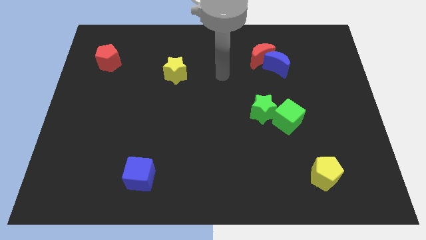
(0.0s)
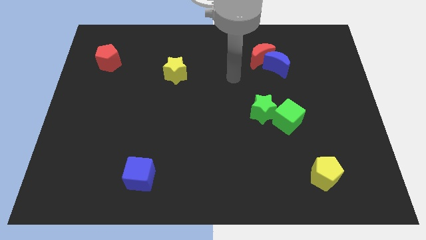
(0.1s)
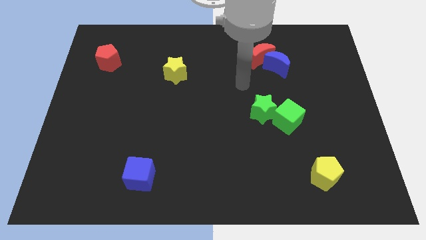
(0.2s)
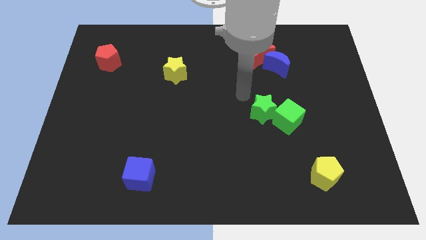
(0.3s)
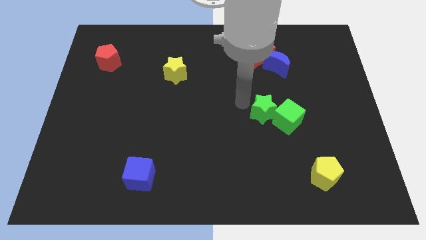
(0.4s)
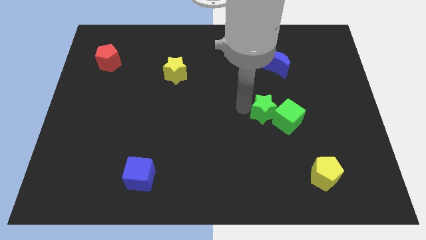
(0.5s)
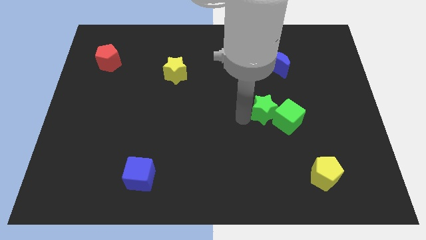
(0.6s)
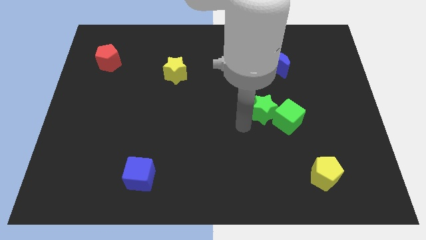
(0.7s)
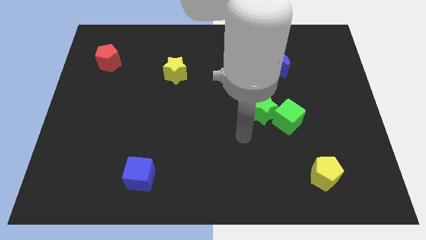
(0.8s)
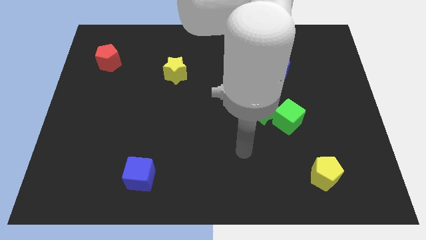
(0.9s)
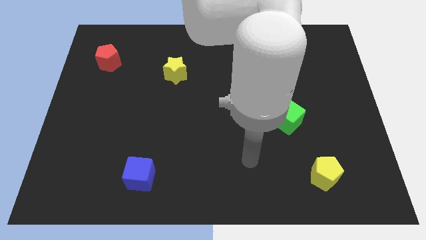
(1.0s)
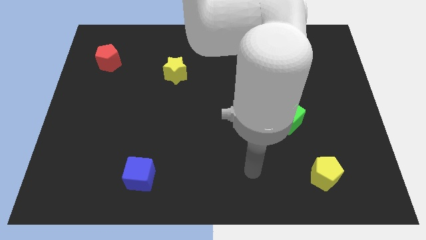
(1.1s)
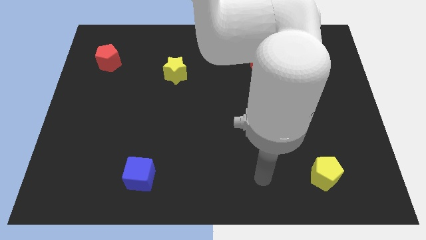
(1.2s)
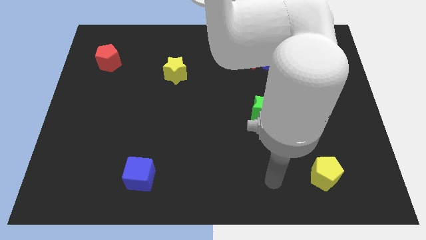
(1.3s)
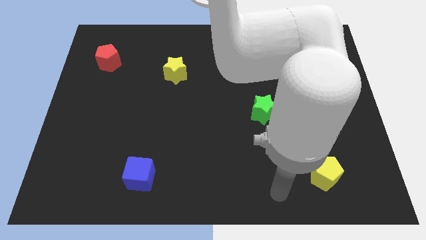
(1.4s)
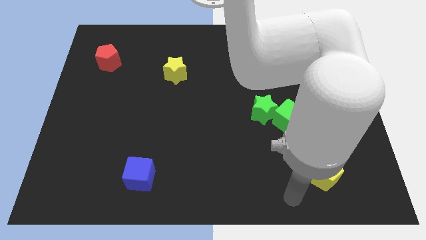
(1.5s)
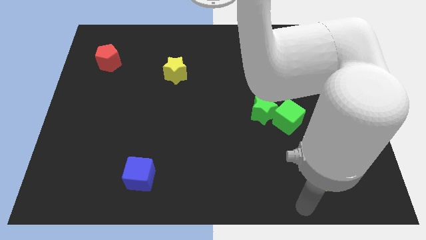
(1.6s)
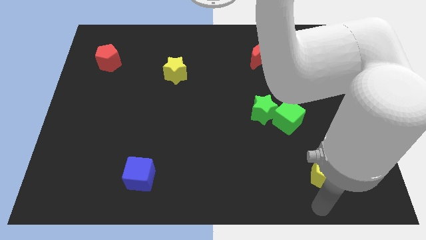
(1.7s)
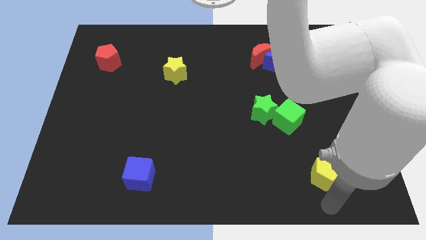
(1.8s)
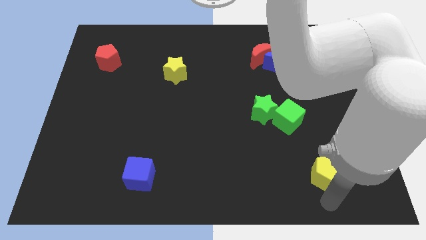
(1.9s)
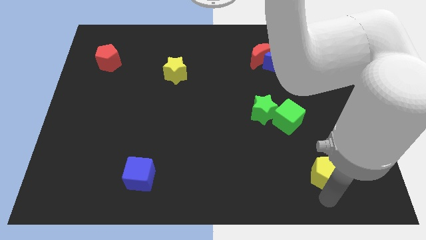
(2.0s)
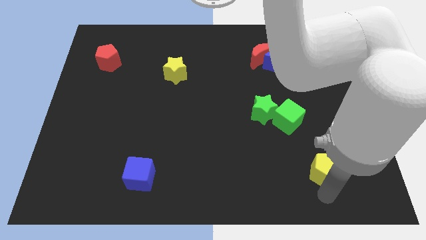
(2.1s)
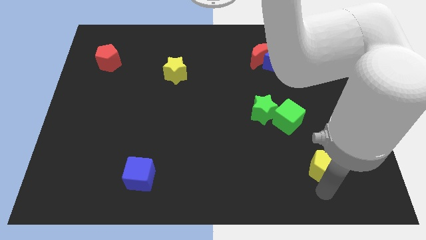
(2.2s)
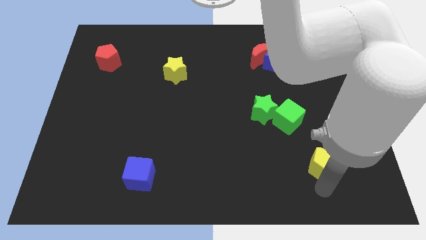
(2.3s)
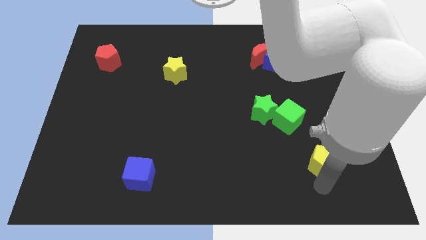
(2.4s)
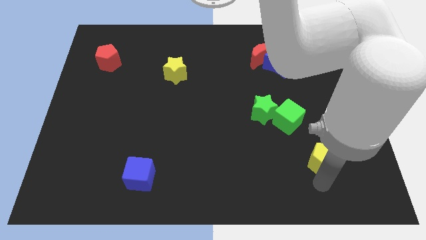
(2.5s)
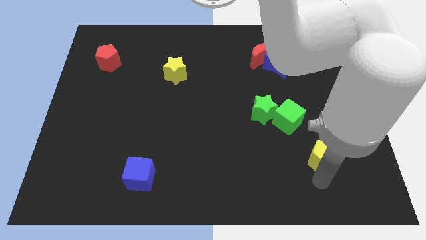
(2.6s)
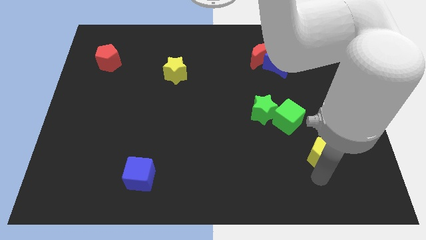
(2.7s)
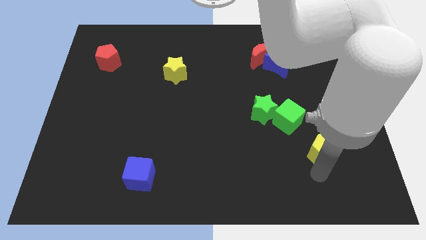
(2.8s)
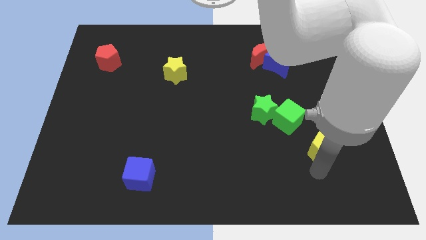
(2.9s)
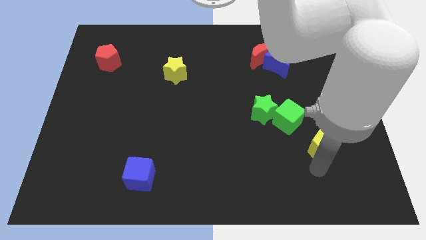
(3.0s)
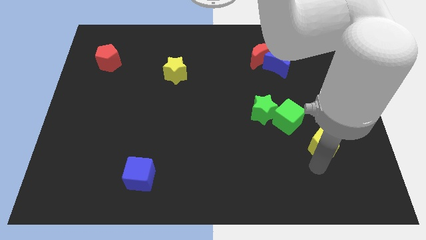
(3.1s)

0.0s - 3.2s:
slide the yellow pentagon up a little

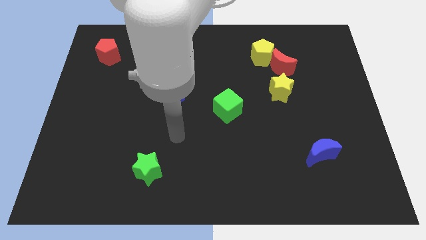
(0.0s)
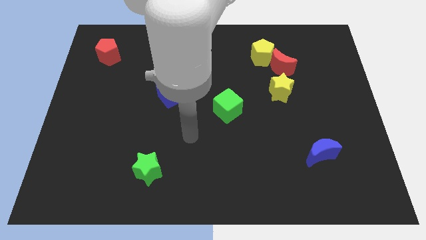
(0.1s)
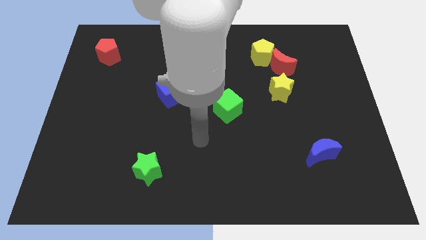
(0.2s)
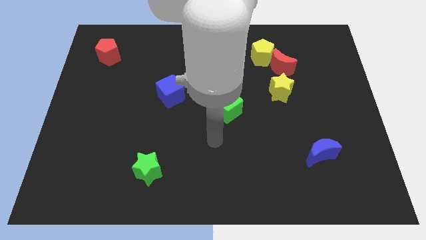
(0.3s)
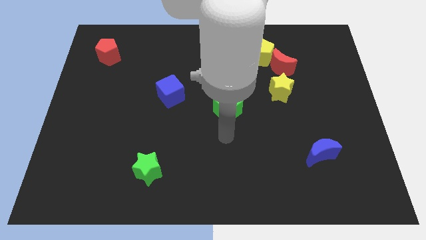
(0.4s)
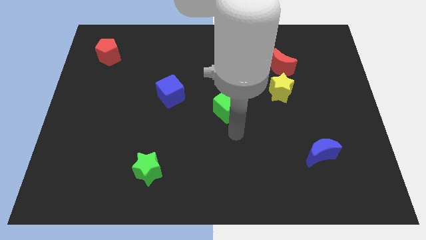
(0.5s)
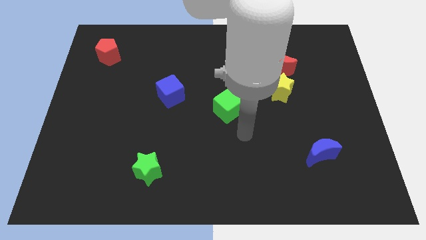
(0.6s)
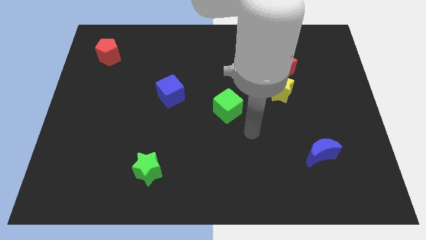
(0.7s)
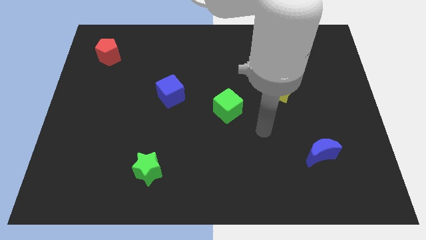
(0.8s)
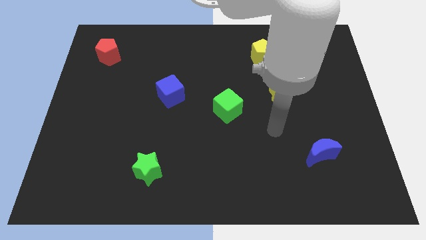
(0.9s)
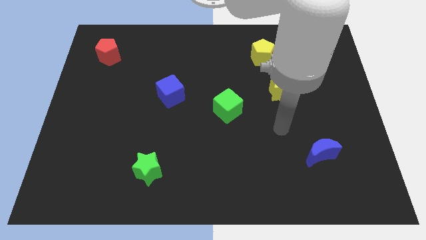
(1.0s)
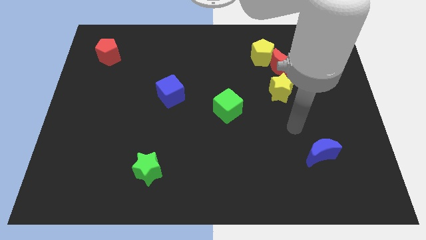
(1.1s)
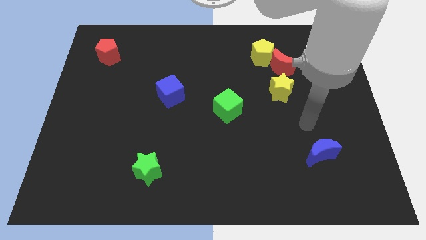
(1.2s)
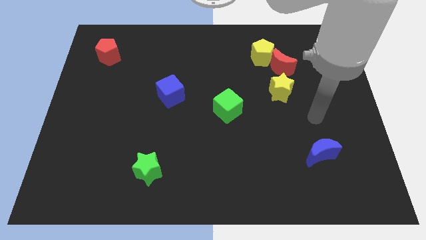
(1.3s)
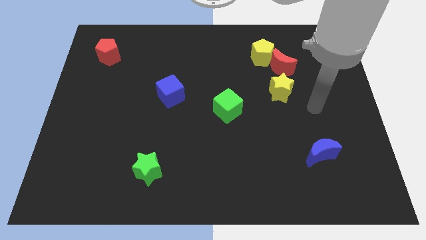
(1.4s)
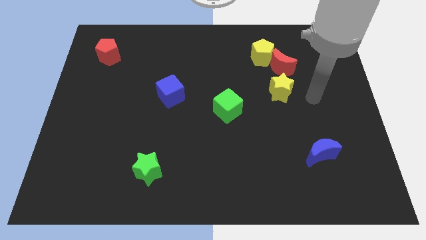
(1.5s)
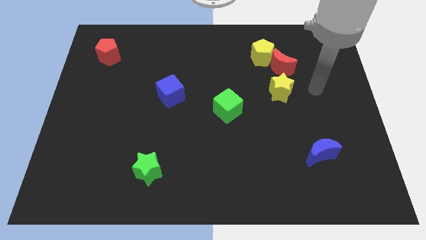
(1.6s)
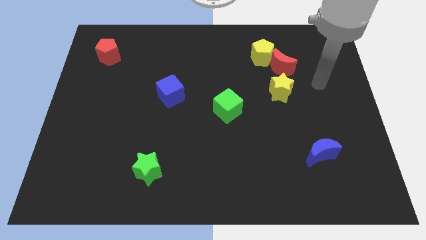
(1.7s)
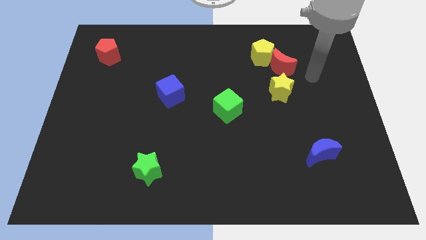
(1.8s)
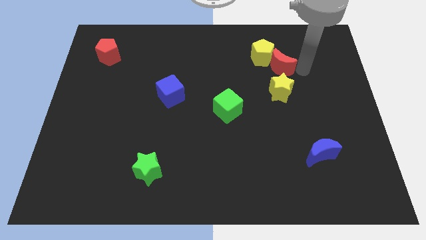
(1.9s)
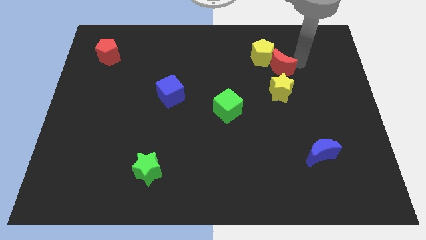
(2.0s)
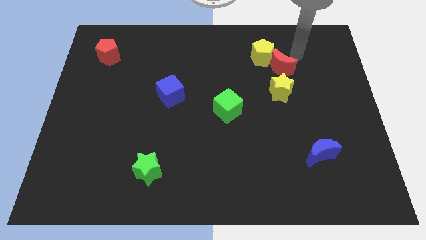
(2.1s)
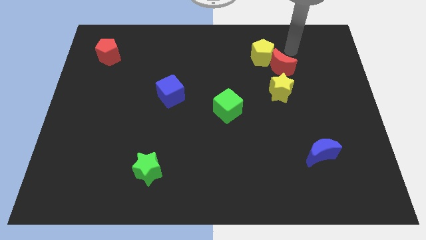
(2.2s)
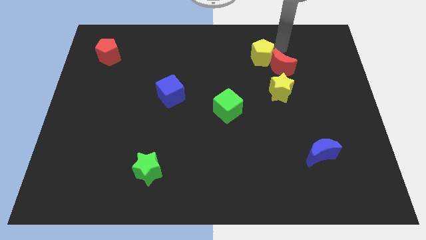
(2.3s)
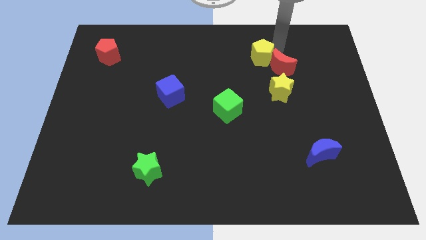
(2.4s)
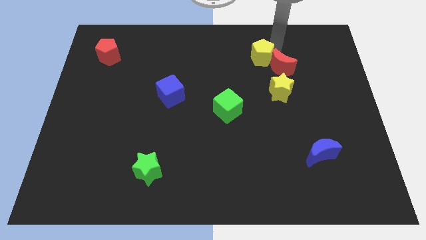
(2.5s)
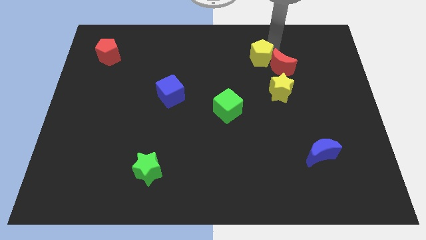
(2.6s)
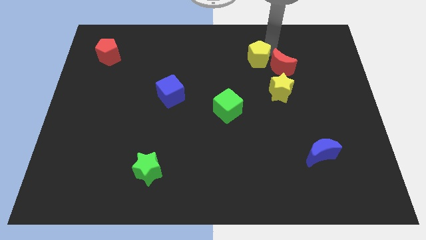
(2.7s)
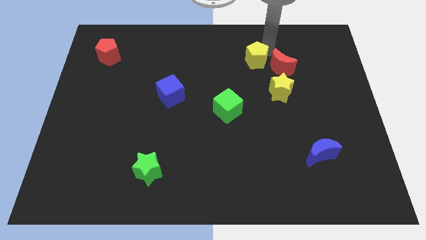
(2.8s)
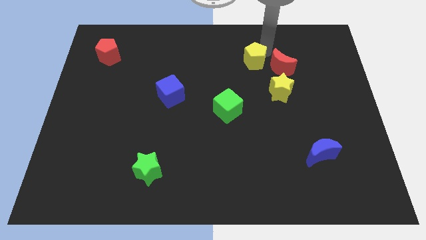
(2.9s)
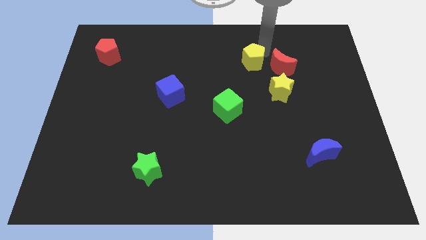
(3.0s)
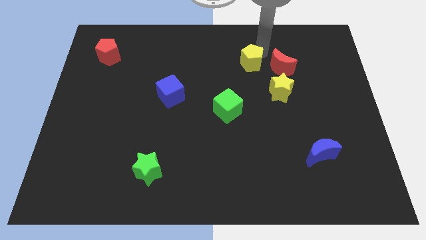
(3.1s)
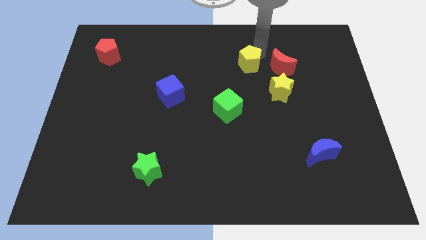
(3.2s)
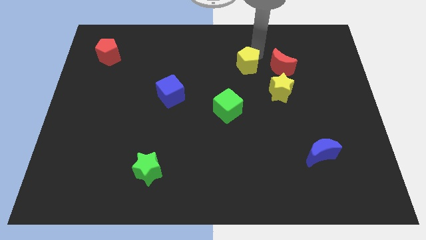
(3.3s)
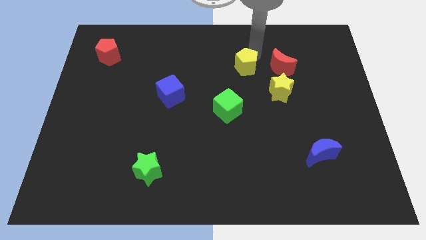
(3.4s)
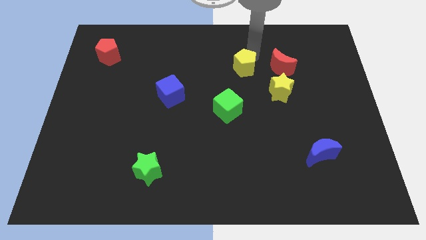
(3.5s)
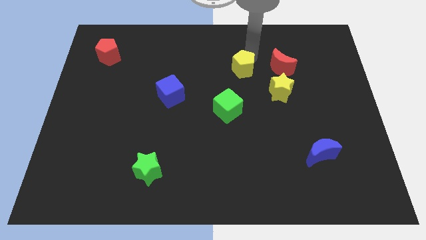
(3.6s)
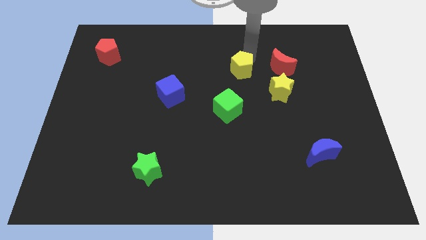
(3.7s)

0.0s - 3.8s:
slide the yellow pentagon somewhat downwards and to the left diagonally

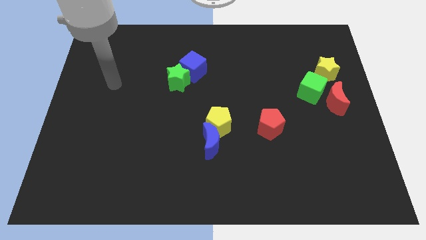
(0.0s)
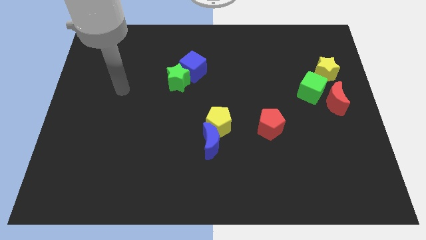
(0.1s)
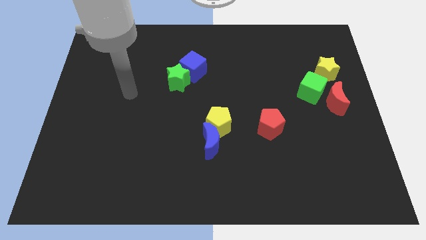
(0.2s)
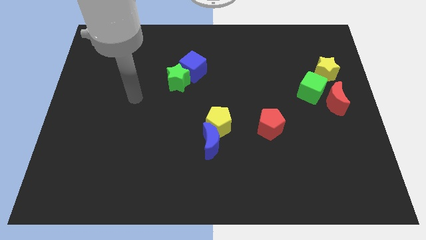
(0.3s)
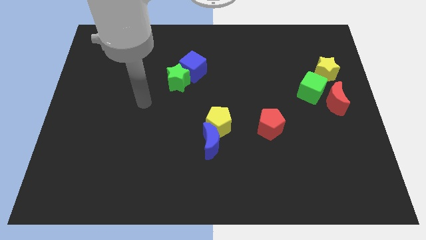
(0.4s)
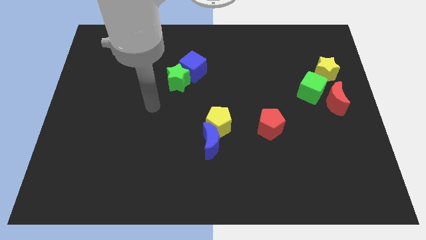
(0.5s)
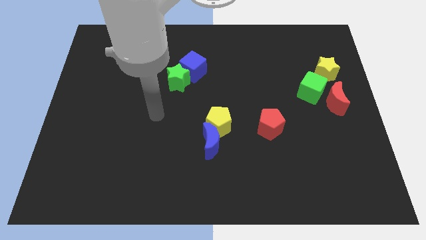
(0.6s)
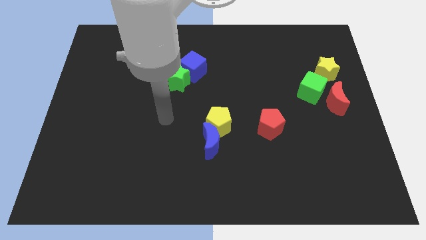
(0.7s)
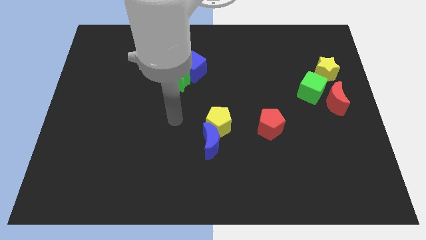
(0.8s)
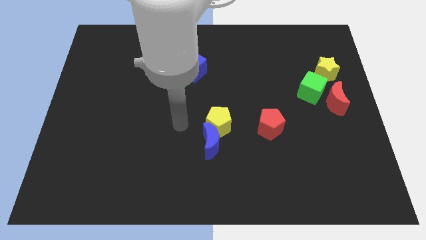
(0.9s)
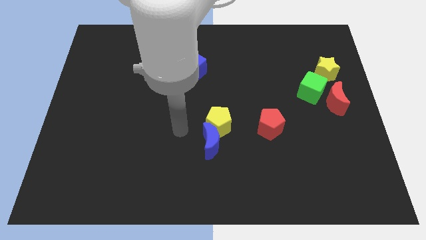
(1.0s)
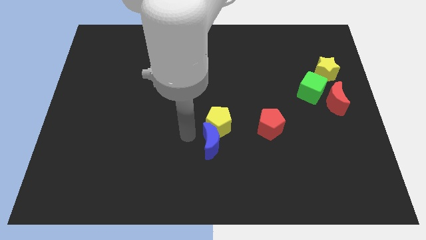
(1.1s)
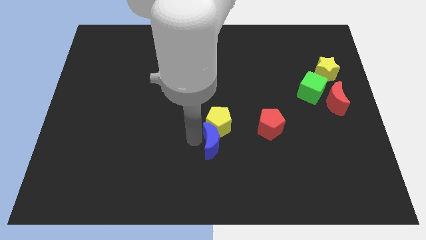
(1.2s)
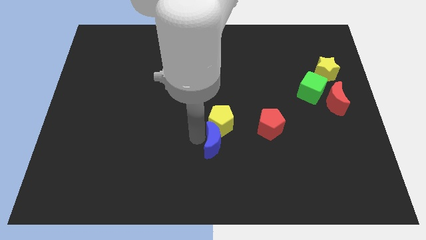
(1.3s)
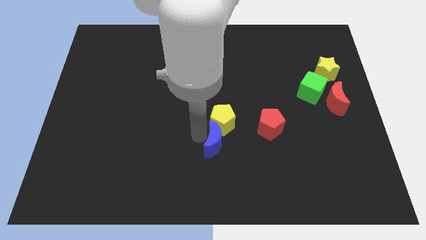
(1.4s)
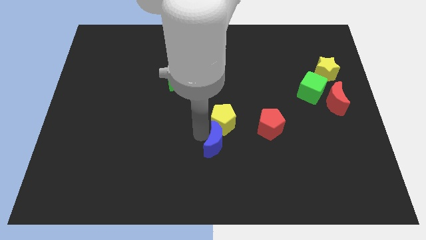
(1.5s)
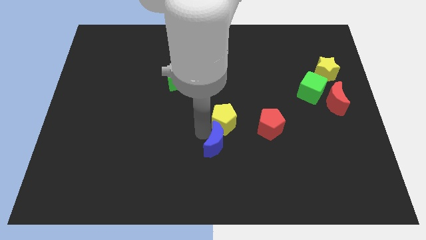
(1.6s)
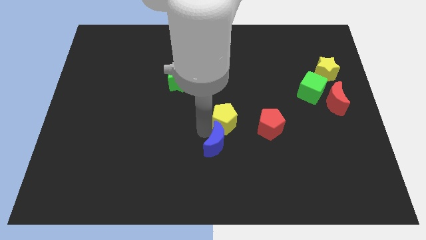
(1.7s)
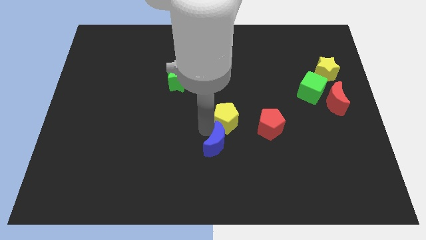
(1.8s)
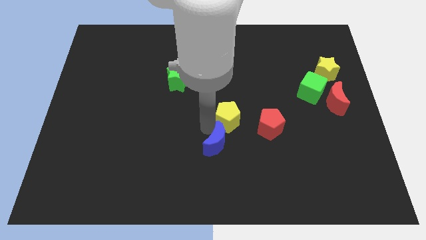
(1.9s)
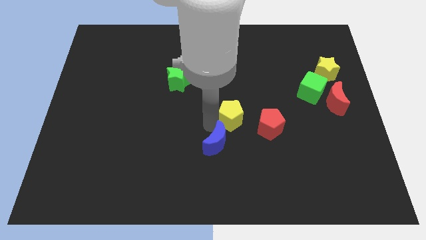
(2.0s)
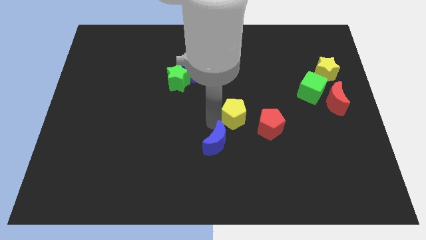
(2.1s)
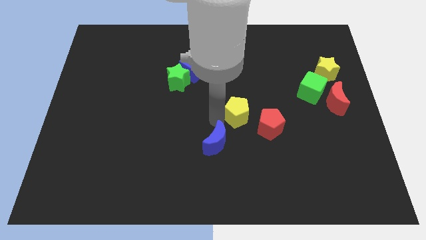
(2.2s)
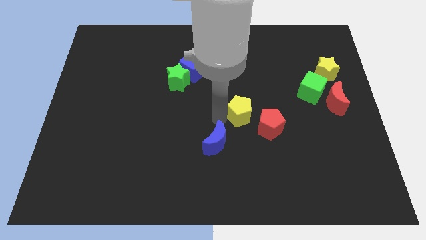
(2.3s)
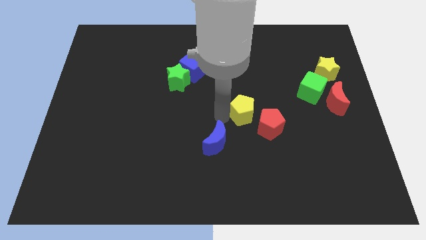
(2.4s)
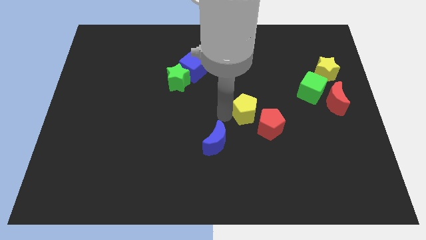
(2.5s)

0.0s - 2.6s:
slightly move the yellow pentagon upwards and right diagonally
